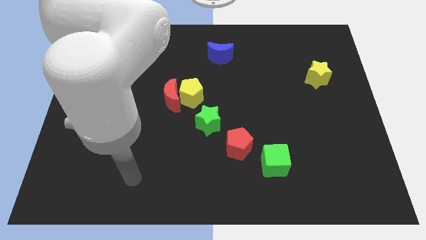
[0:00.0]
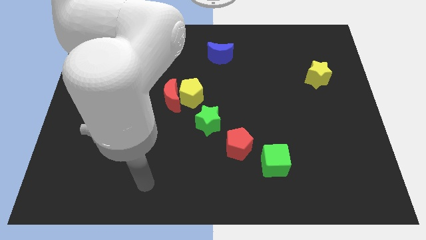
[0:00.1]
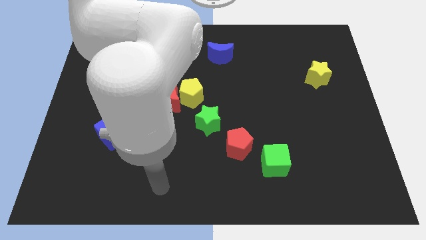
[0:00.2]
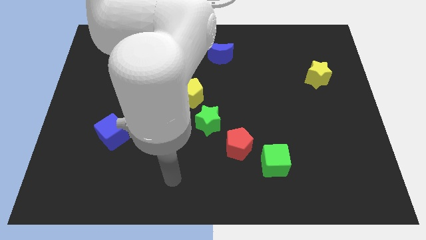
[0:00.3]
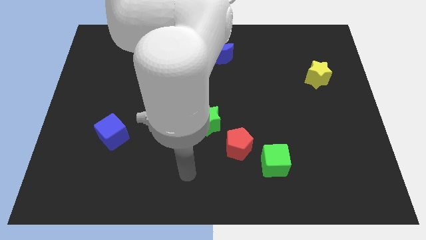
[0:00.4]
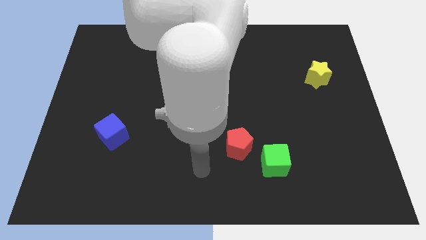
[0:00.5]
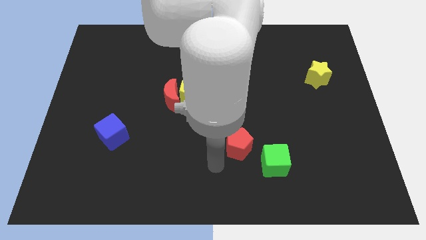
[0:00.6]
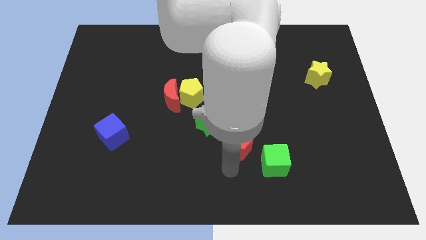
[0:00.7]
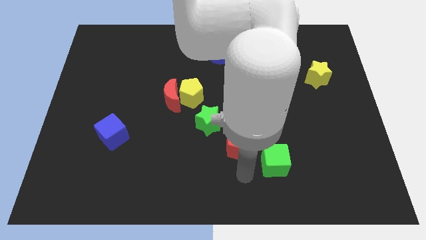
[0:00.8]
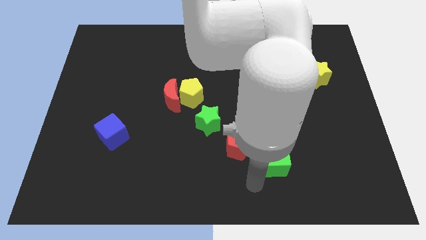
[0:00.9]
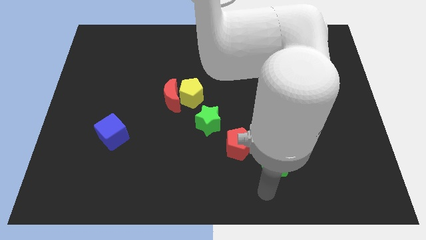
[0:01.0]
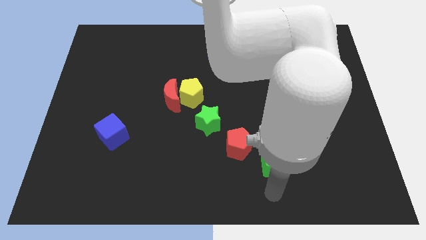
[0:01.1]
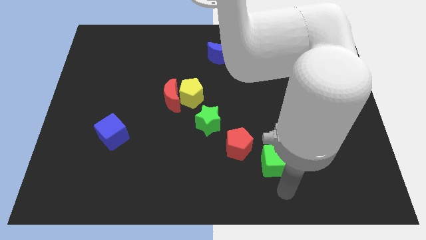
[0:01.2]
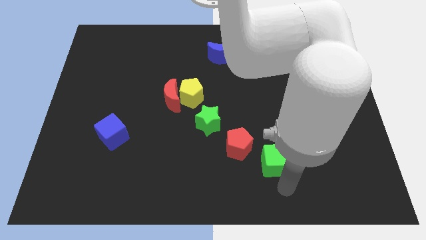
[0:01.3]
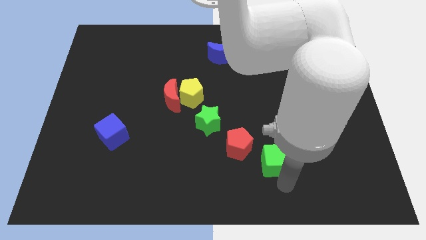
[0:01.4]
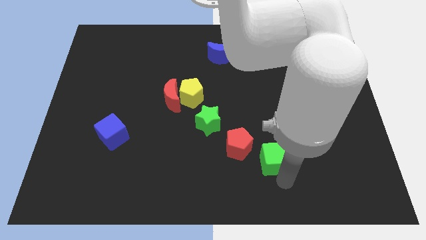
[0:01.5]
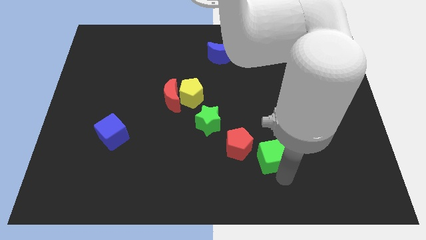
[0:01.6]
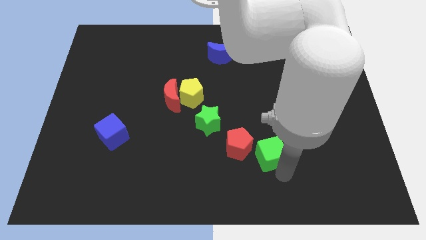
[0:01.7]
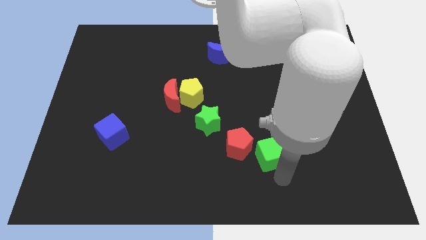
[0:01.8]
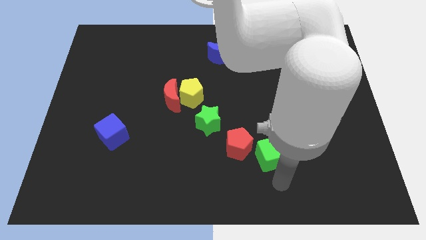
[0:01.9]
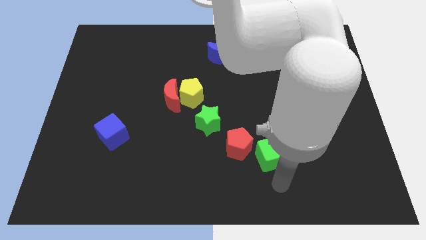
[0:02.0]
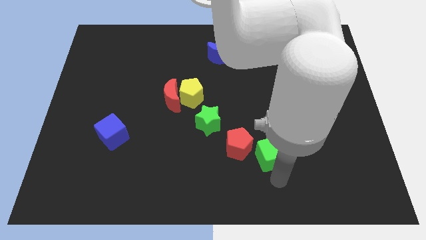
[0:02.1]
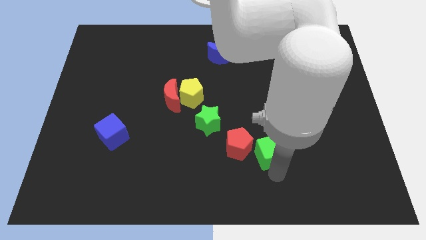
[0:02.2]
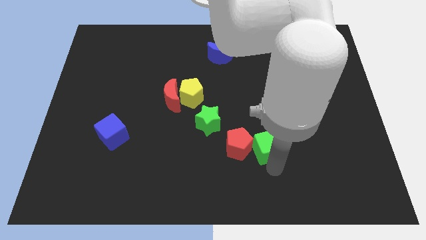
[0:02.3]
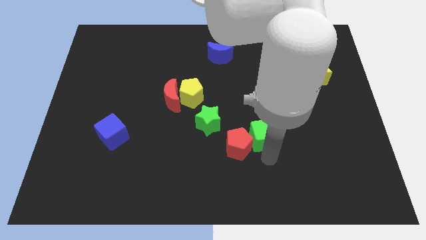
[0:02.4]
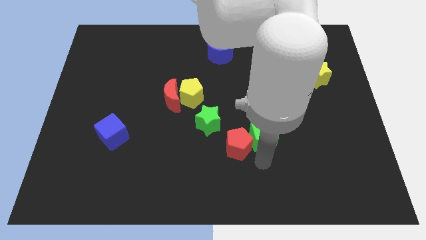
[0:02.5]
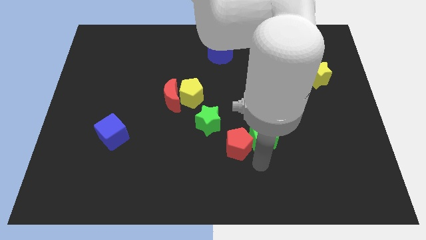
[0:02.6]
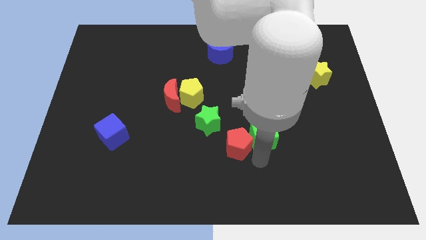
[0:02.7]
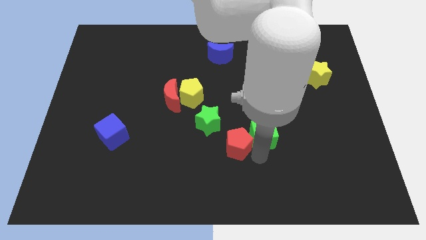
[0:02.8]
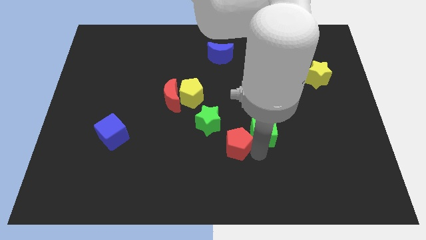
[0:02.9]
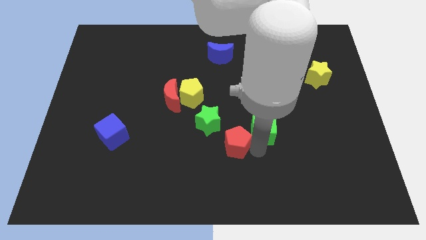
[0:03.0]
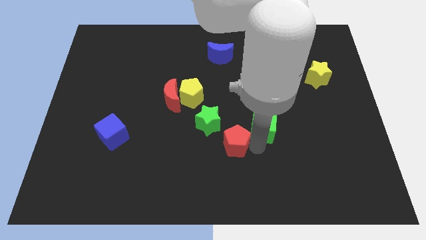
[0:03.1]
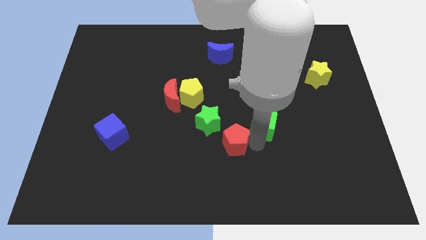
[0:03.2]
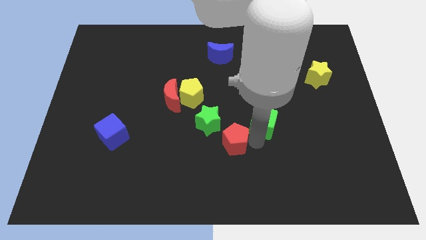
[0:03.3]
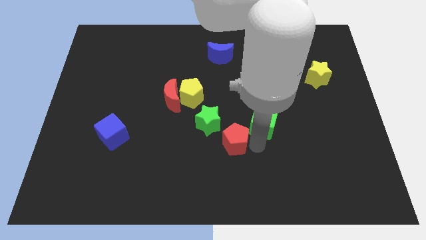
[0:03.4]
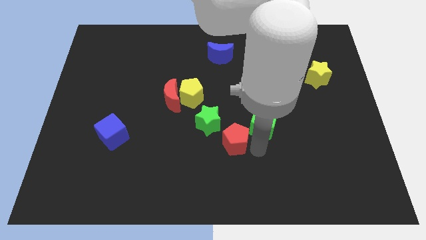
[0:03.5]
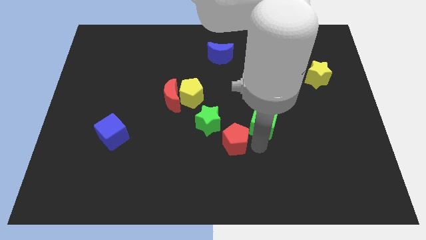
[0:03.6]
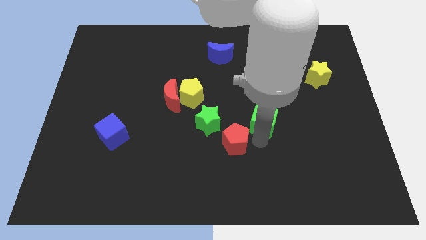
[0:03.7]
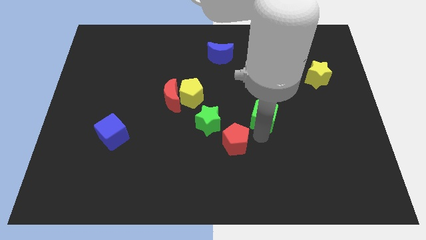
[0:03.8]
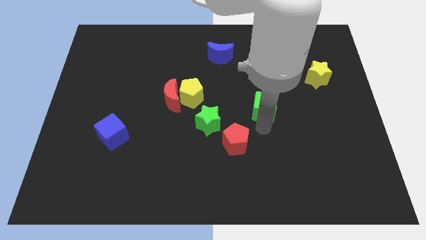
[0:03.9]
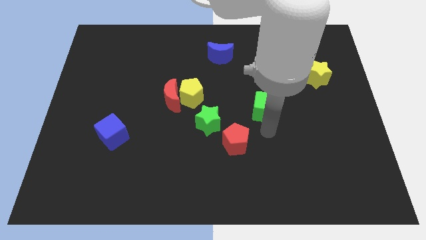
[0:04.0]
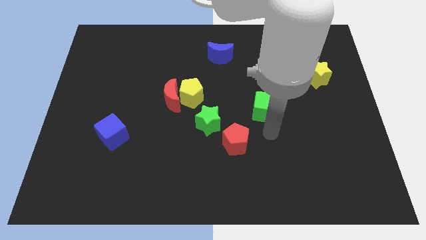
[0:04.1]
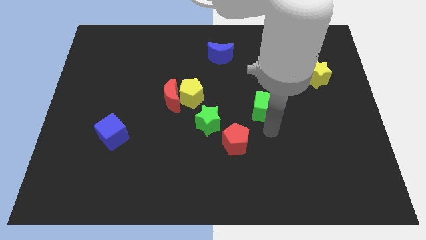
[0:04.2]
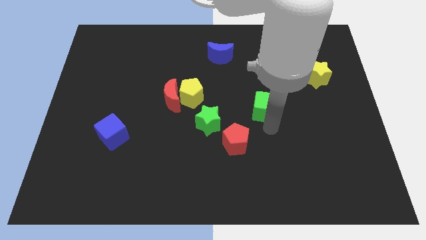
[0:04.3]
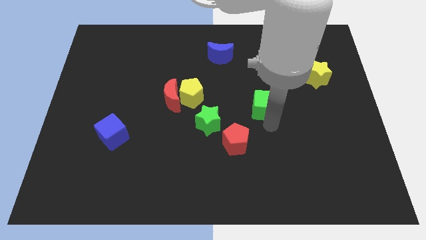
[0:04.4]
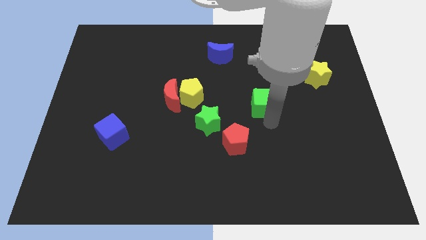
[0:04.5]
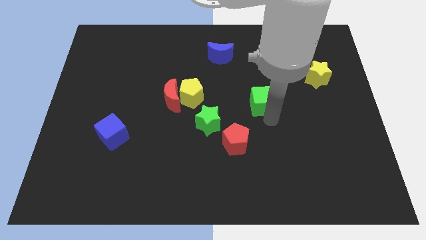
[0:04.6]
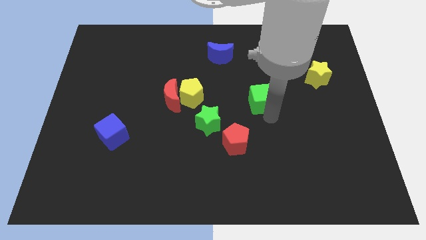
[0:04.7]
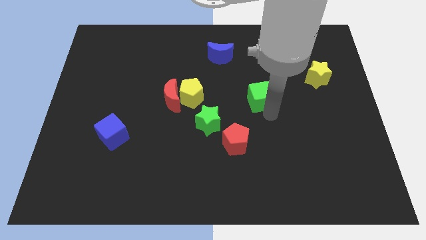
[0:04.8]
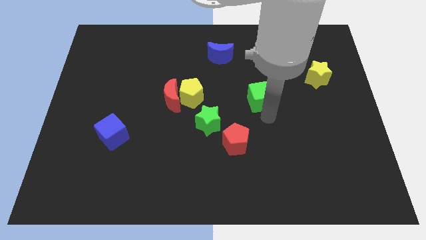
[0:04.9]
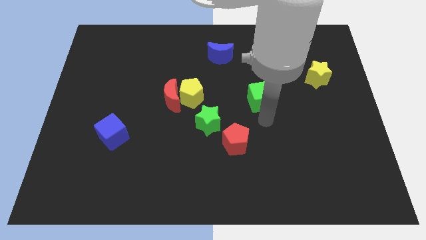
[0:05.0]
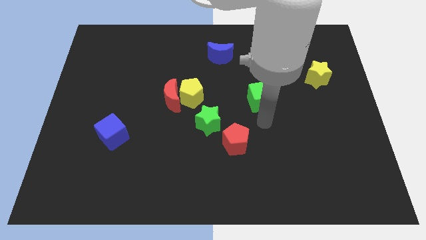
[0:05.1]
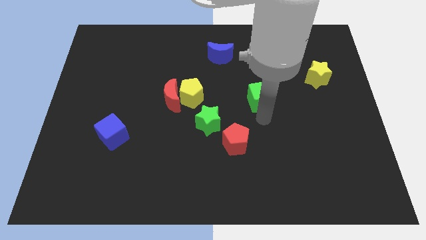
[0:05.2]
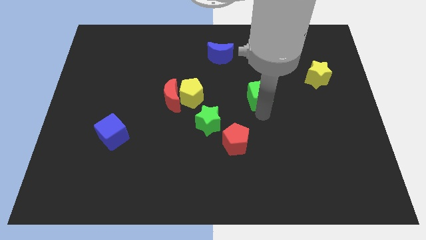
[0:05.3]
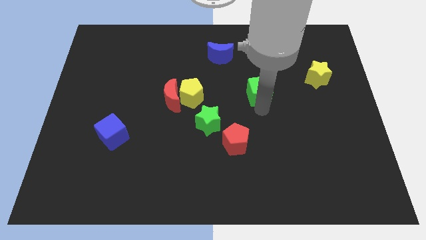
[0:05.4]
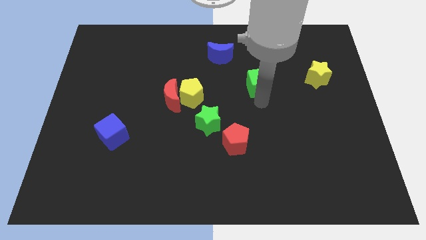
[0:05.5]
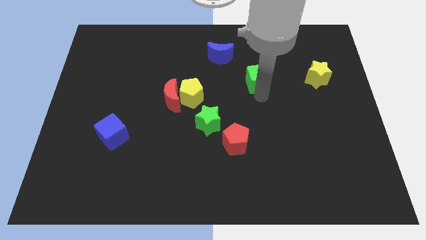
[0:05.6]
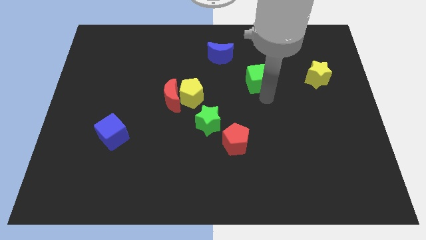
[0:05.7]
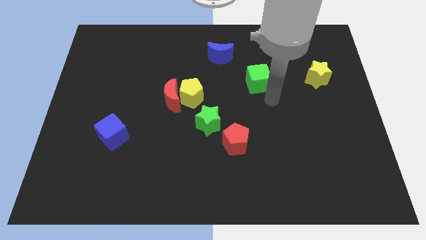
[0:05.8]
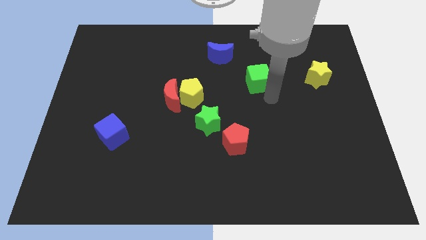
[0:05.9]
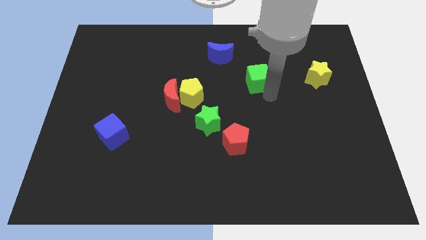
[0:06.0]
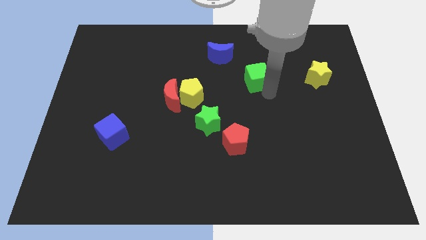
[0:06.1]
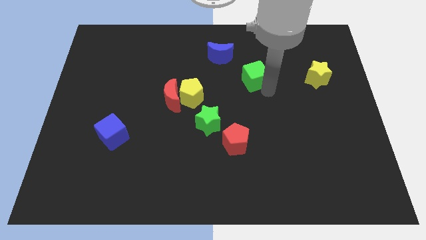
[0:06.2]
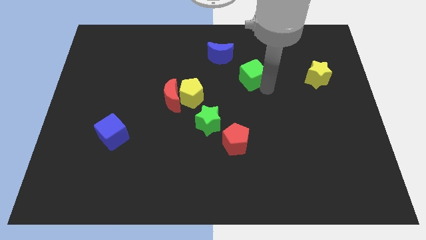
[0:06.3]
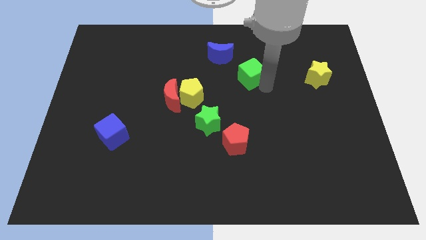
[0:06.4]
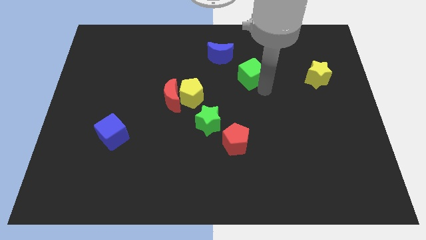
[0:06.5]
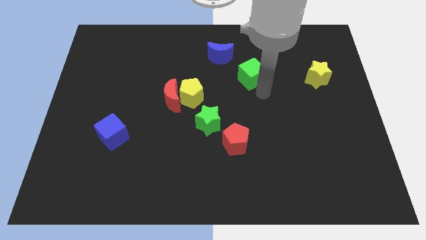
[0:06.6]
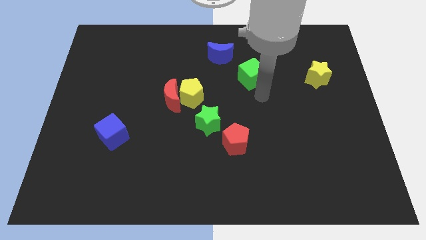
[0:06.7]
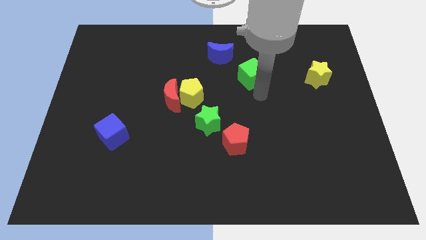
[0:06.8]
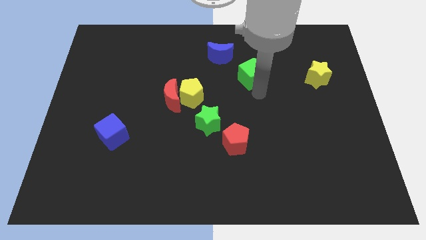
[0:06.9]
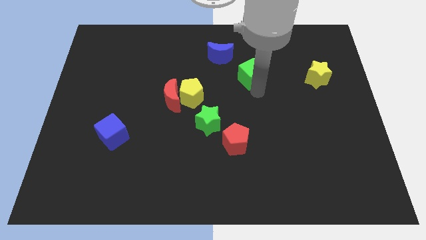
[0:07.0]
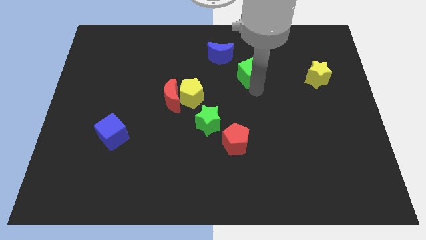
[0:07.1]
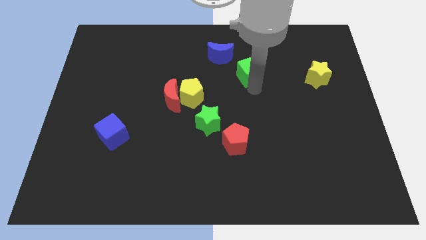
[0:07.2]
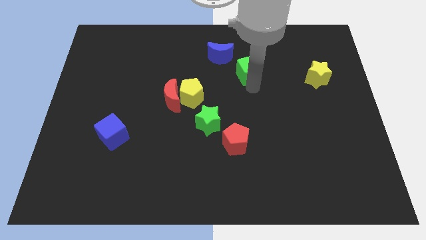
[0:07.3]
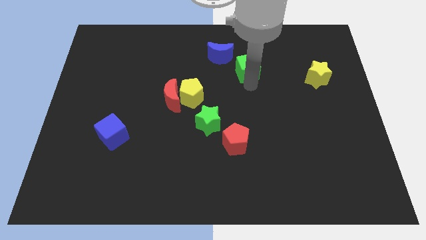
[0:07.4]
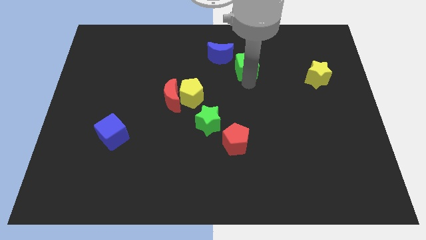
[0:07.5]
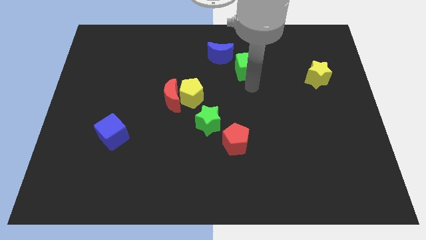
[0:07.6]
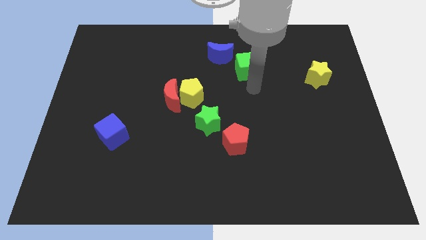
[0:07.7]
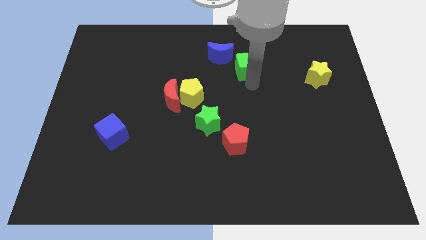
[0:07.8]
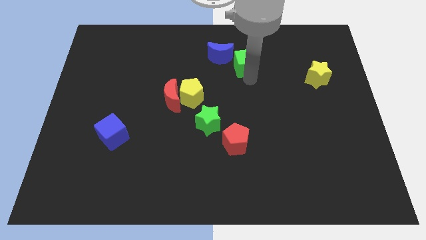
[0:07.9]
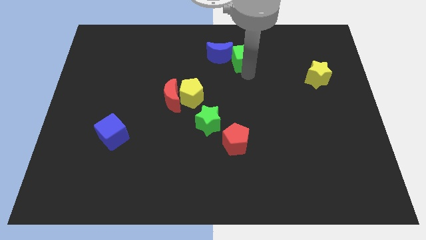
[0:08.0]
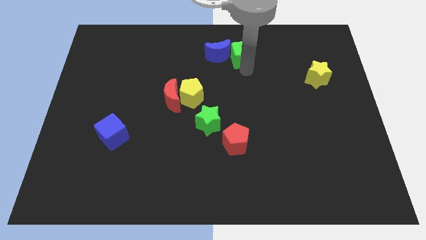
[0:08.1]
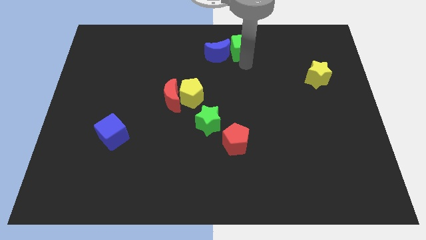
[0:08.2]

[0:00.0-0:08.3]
slide the green cube to the top
